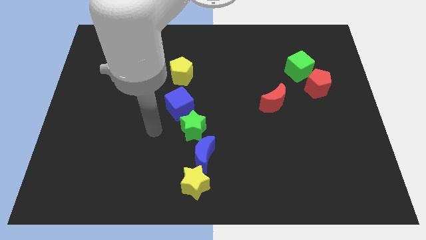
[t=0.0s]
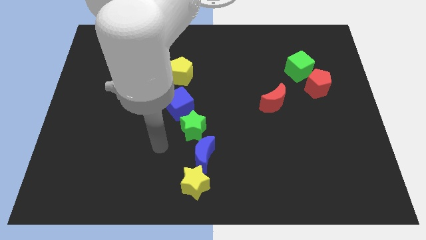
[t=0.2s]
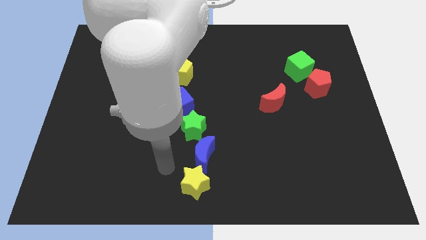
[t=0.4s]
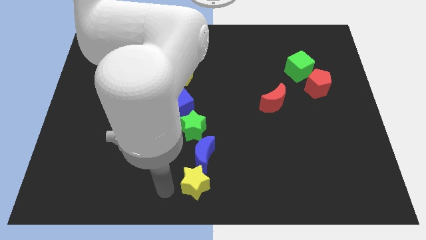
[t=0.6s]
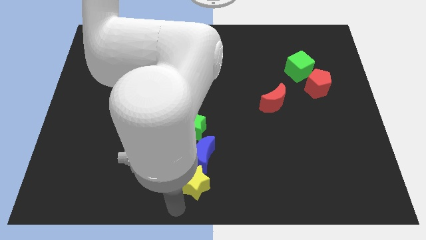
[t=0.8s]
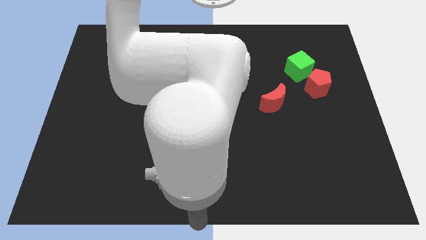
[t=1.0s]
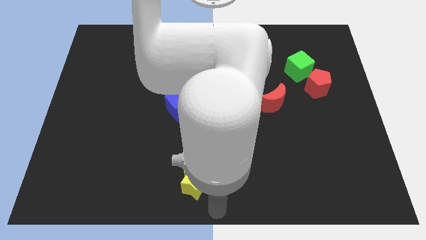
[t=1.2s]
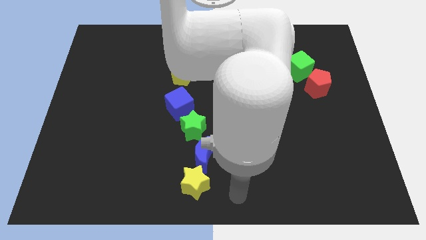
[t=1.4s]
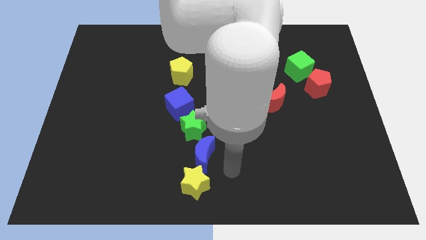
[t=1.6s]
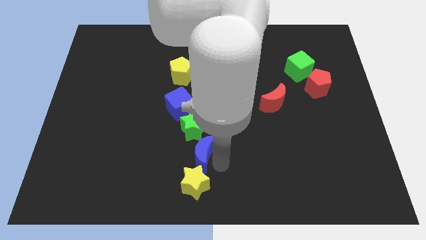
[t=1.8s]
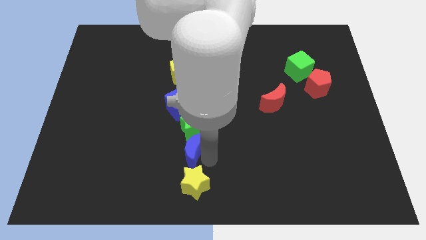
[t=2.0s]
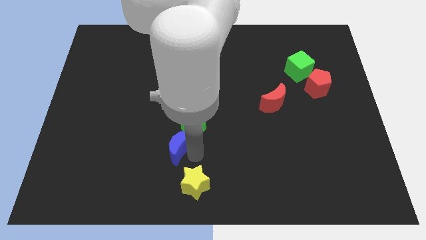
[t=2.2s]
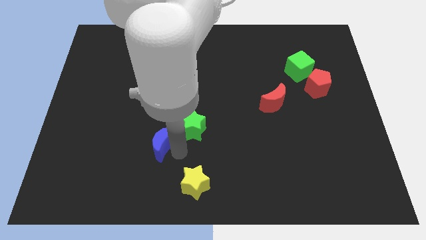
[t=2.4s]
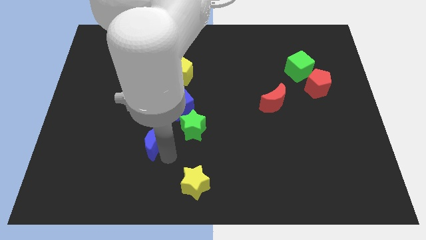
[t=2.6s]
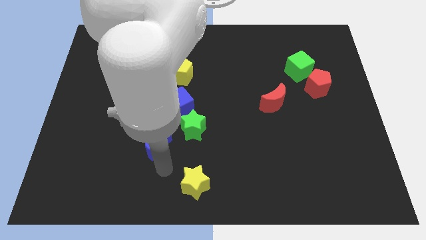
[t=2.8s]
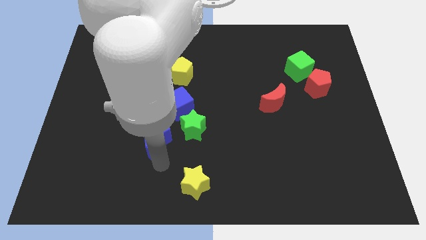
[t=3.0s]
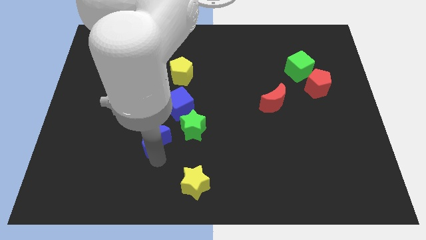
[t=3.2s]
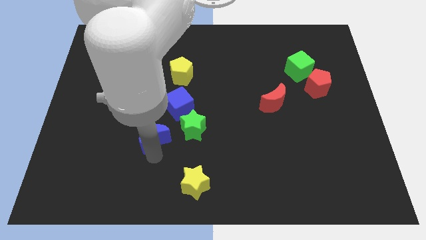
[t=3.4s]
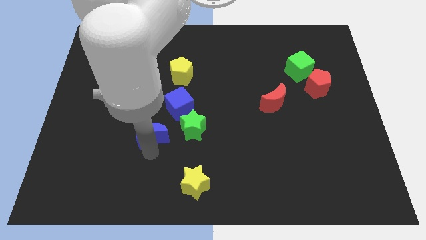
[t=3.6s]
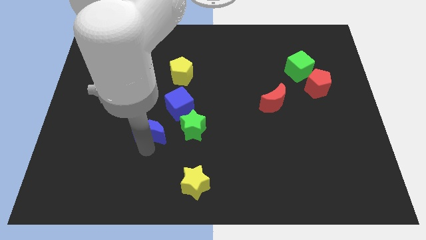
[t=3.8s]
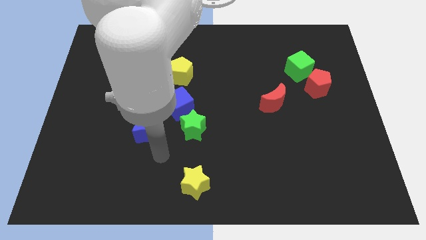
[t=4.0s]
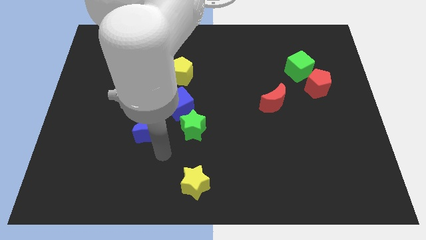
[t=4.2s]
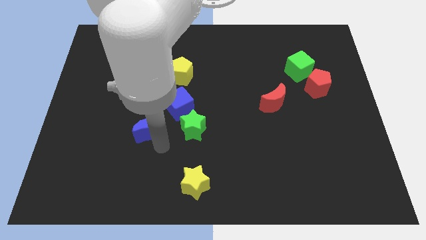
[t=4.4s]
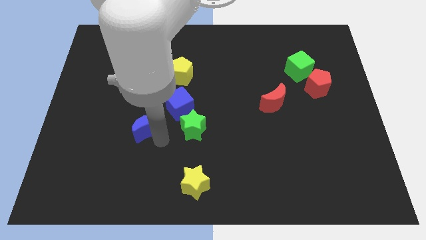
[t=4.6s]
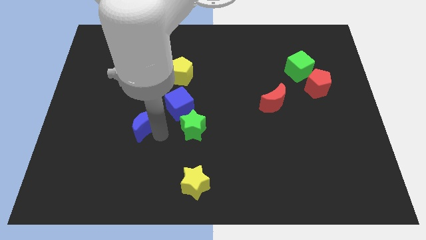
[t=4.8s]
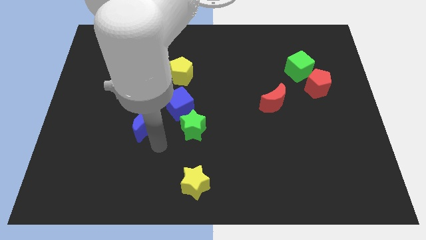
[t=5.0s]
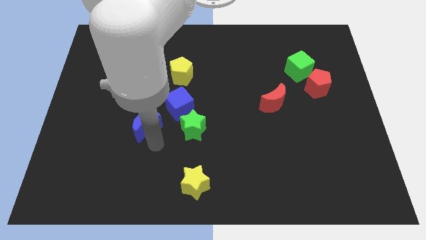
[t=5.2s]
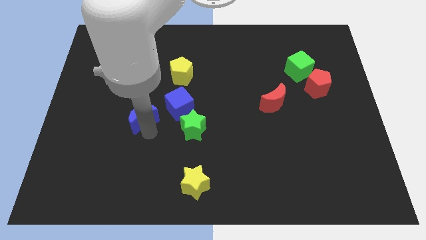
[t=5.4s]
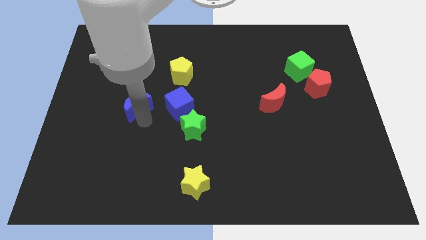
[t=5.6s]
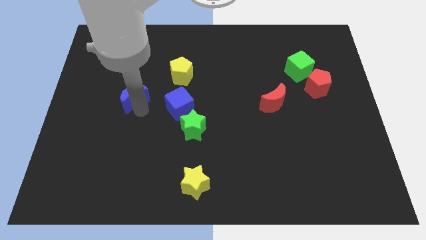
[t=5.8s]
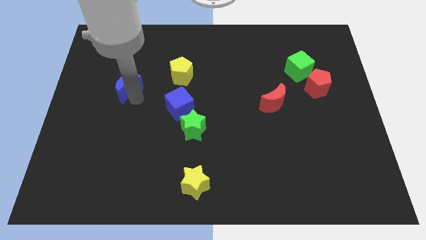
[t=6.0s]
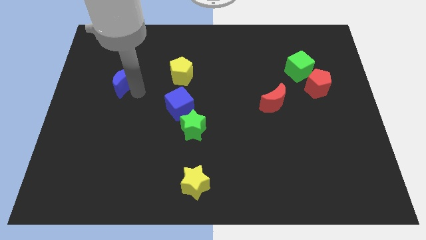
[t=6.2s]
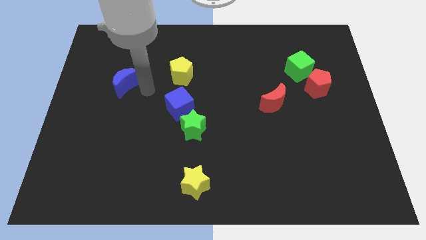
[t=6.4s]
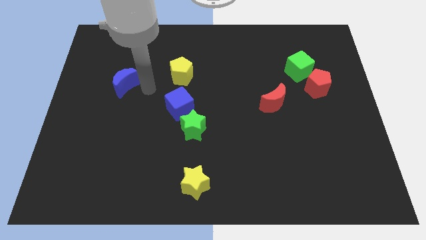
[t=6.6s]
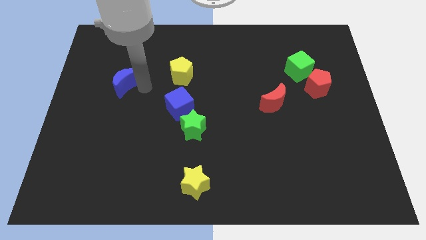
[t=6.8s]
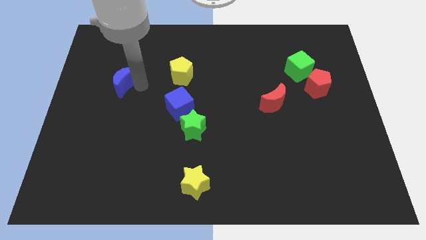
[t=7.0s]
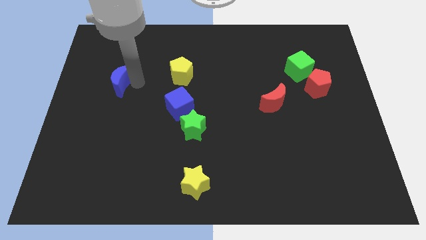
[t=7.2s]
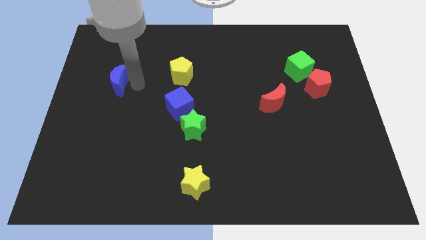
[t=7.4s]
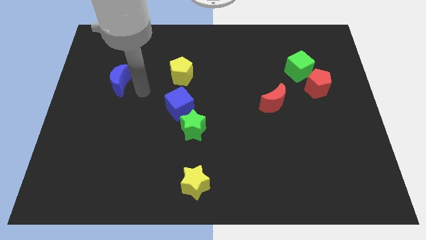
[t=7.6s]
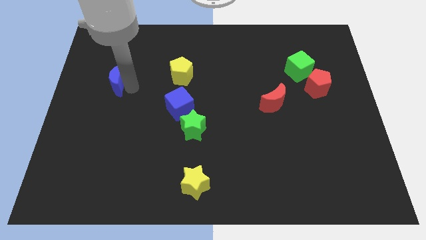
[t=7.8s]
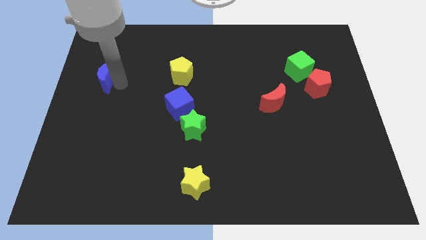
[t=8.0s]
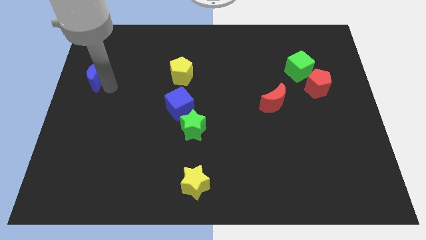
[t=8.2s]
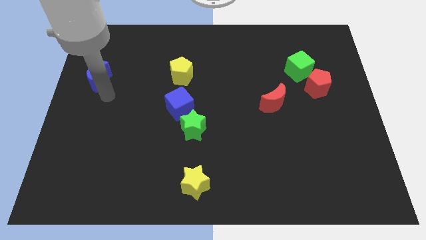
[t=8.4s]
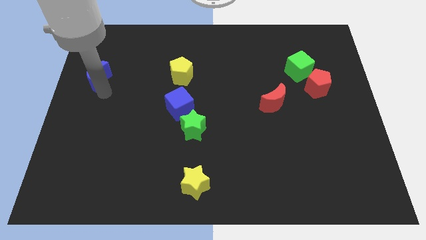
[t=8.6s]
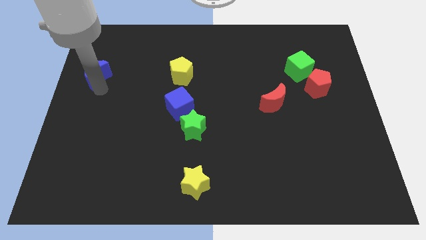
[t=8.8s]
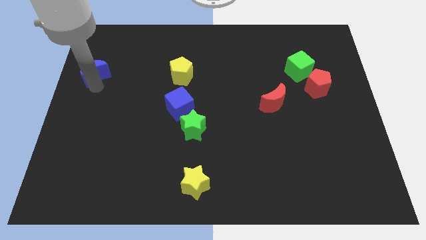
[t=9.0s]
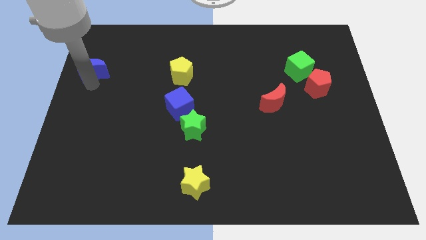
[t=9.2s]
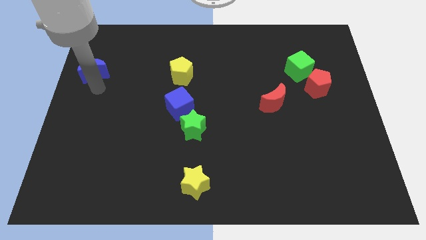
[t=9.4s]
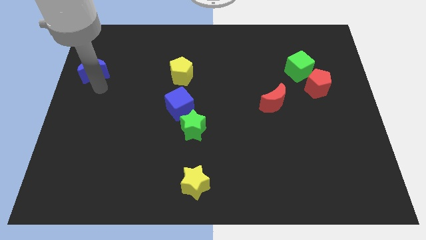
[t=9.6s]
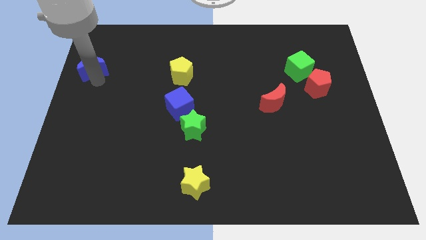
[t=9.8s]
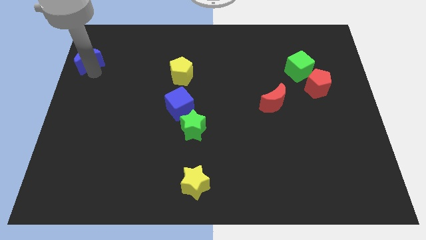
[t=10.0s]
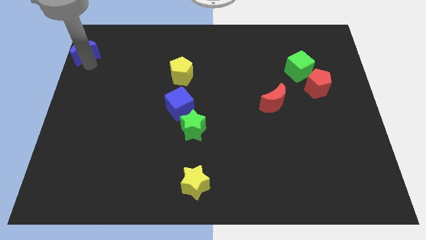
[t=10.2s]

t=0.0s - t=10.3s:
slide the blue moon to the top left of the board
